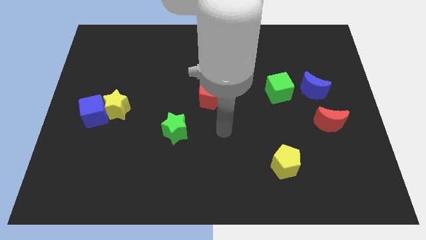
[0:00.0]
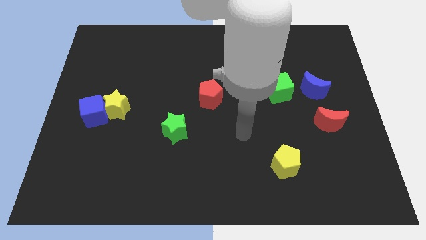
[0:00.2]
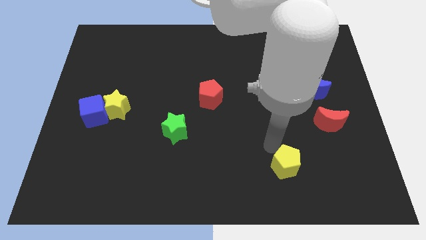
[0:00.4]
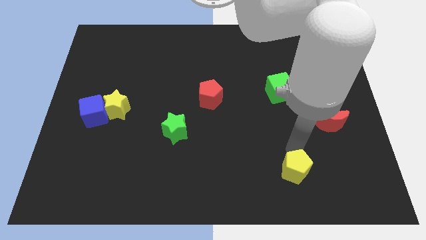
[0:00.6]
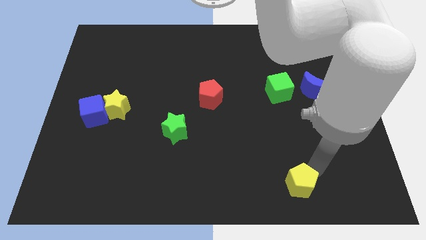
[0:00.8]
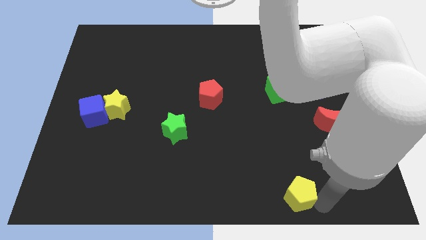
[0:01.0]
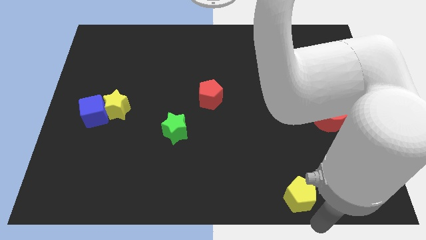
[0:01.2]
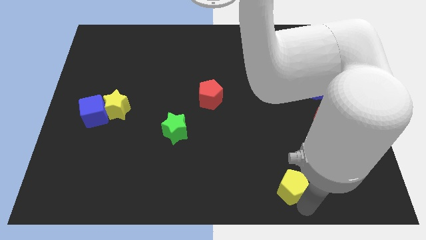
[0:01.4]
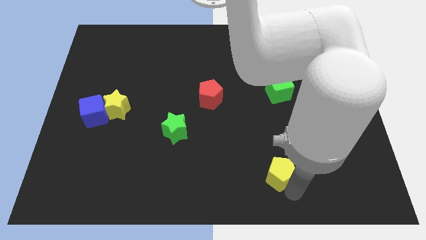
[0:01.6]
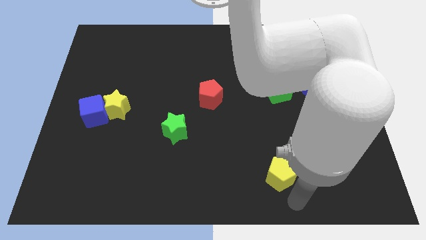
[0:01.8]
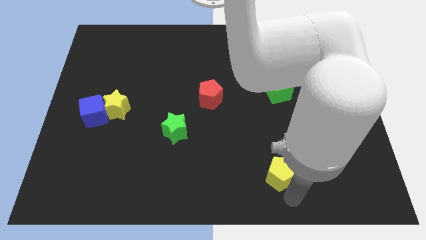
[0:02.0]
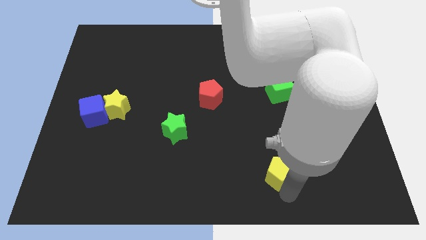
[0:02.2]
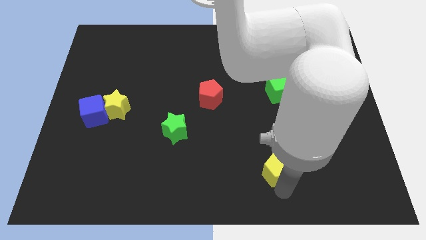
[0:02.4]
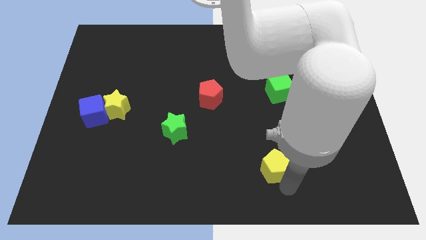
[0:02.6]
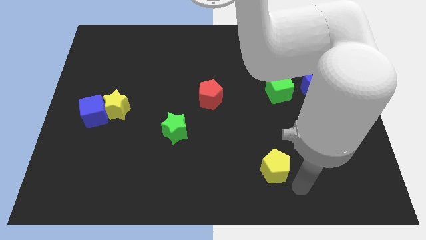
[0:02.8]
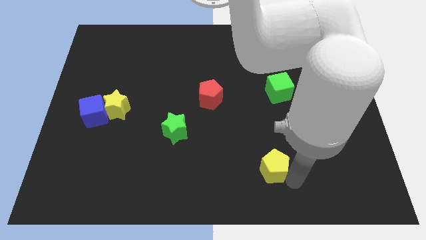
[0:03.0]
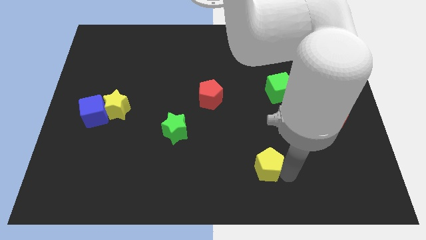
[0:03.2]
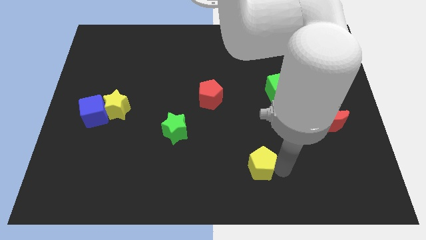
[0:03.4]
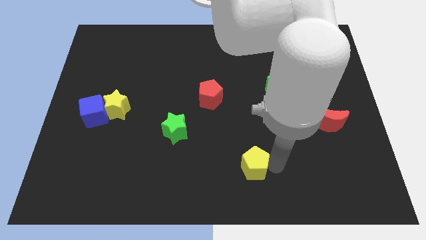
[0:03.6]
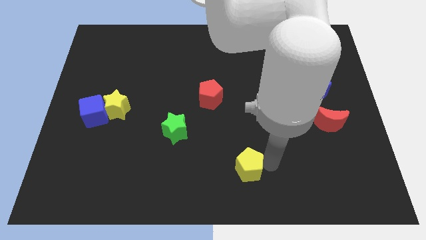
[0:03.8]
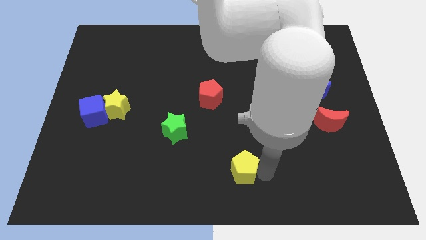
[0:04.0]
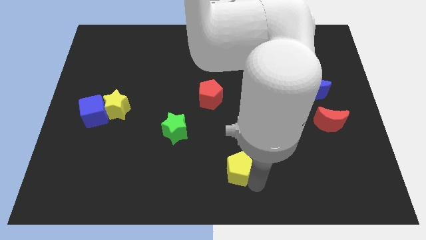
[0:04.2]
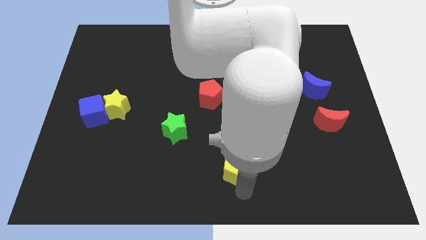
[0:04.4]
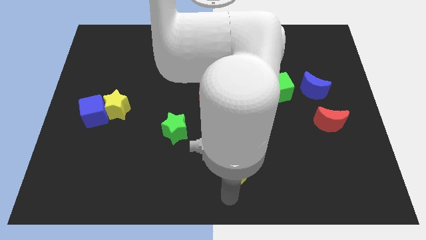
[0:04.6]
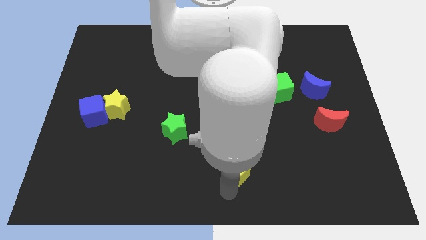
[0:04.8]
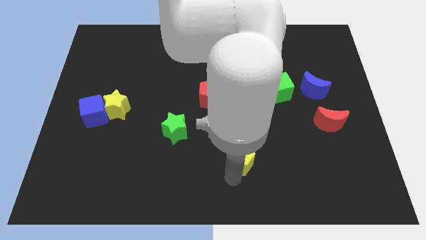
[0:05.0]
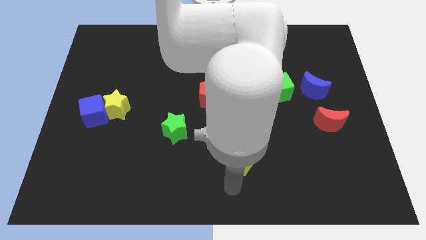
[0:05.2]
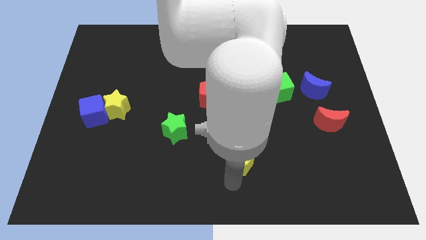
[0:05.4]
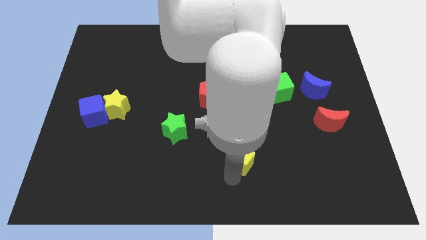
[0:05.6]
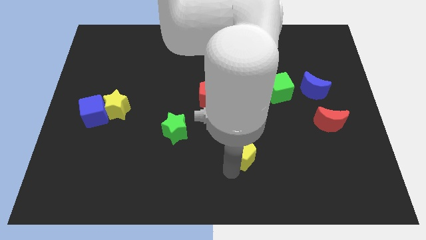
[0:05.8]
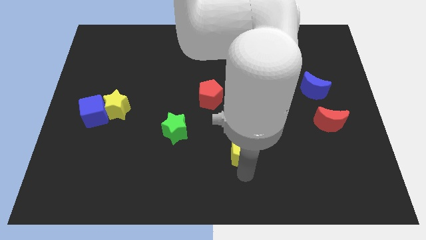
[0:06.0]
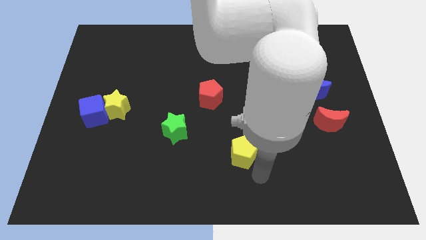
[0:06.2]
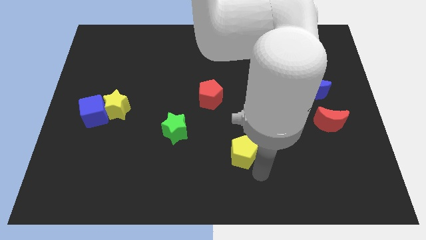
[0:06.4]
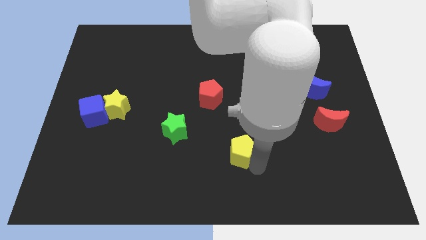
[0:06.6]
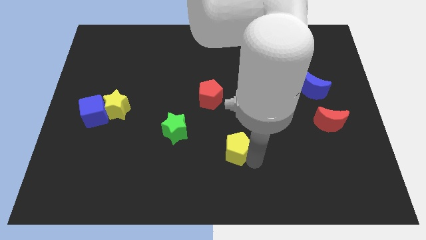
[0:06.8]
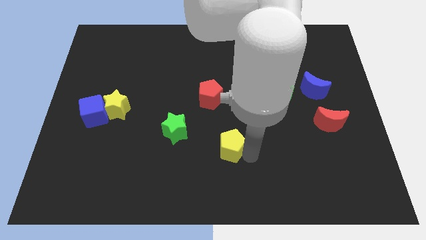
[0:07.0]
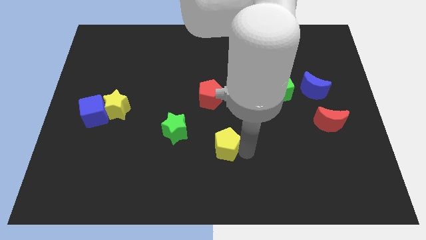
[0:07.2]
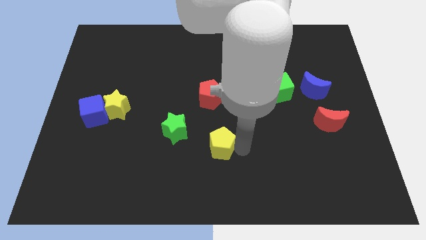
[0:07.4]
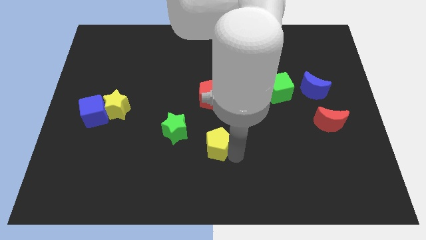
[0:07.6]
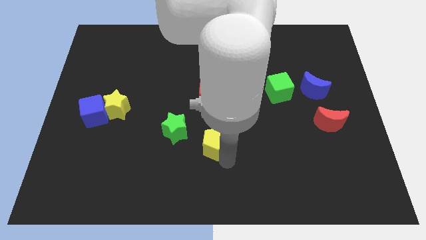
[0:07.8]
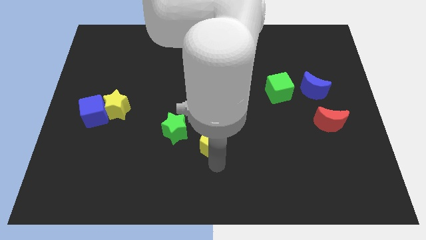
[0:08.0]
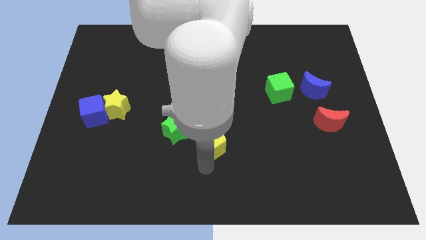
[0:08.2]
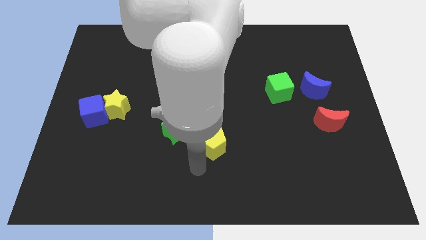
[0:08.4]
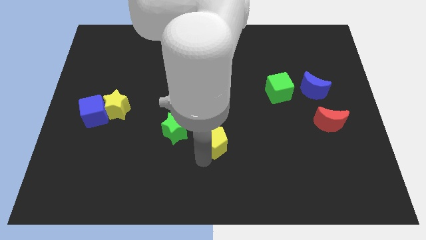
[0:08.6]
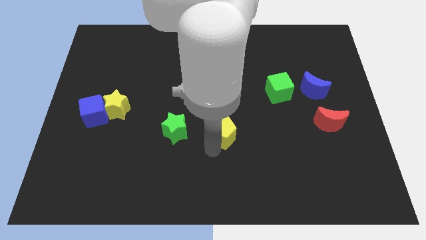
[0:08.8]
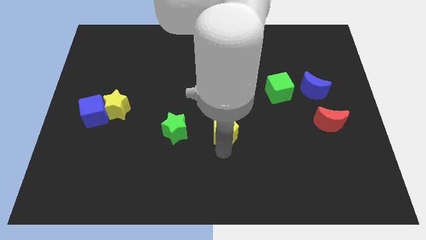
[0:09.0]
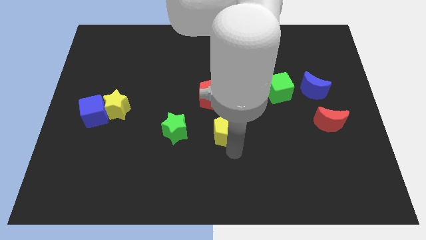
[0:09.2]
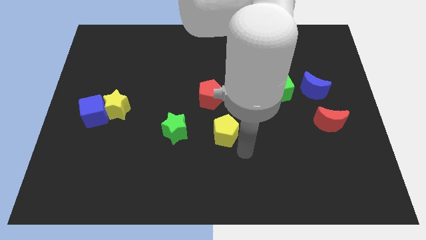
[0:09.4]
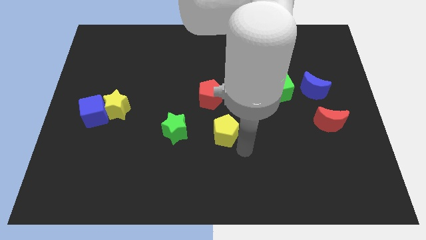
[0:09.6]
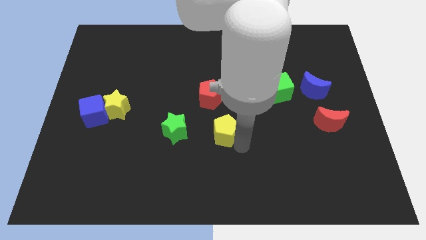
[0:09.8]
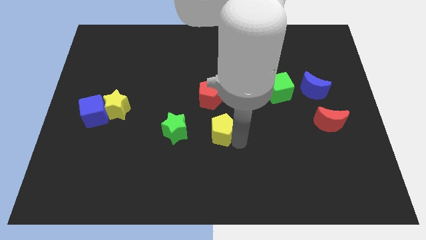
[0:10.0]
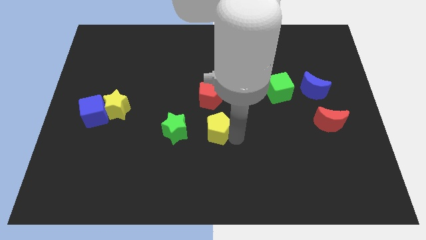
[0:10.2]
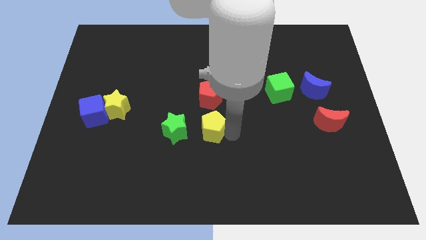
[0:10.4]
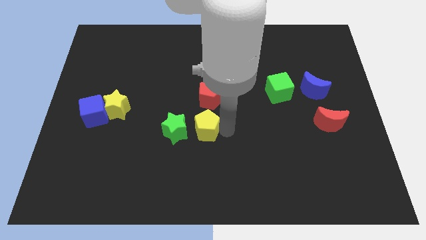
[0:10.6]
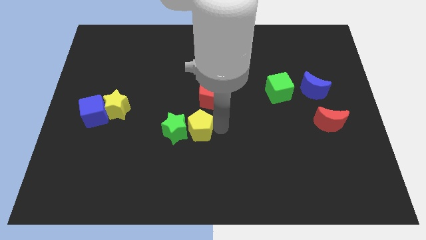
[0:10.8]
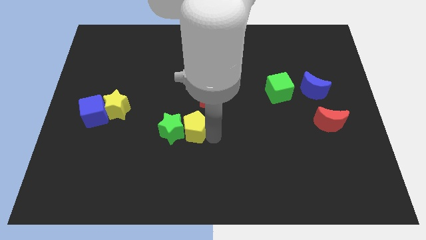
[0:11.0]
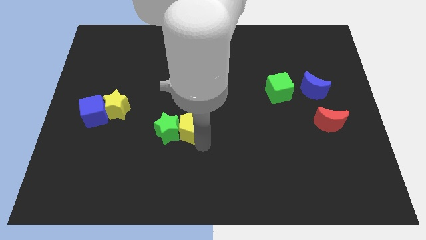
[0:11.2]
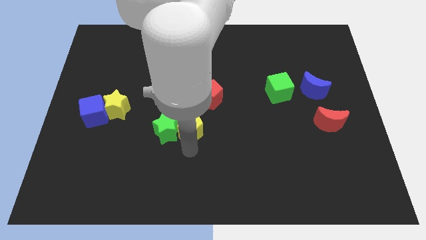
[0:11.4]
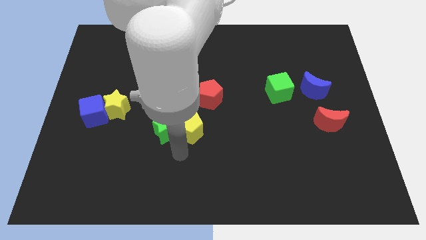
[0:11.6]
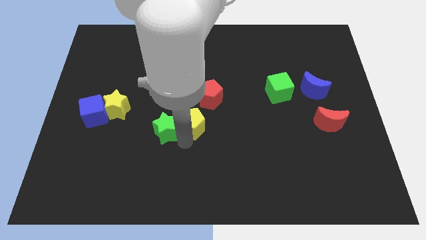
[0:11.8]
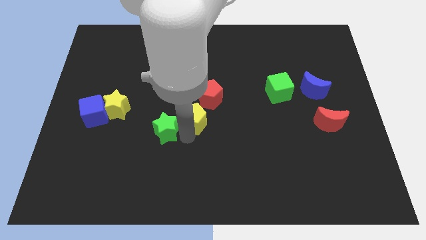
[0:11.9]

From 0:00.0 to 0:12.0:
slide the yellow pentagon upwards and then left

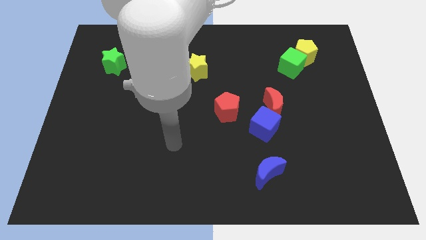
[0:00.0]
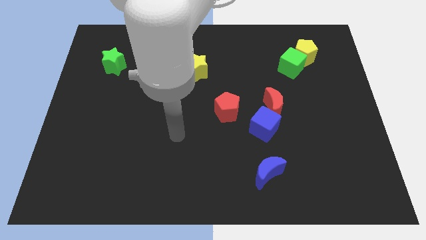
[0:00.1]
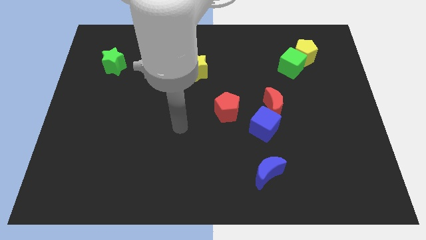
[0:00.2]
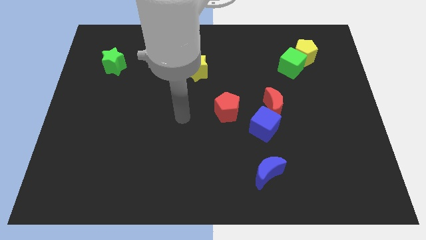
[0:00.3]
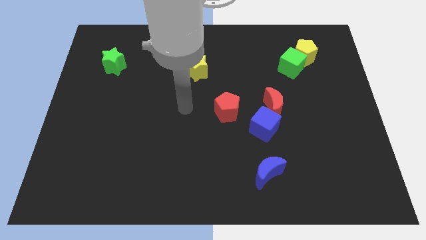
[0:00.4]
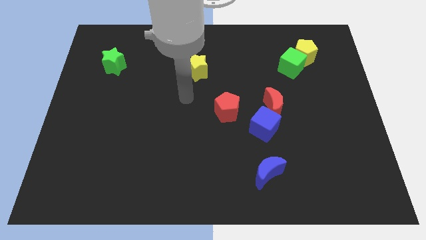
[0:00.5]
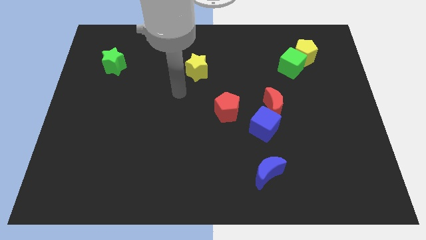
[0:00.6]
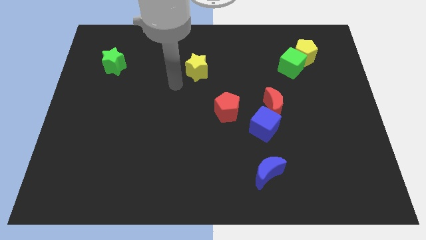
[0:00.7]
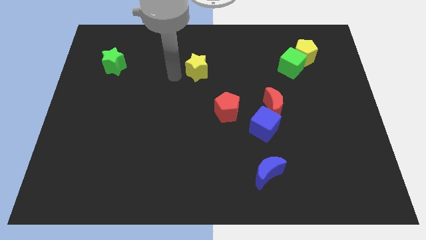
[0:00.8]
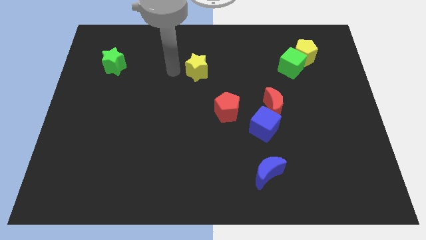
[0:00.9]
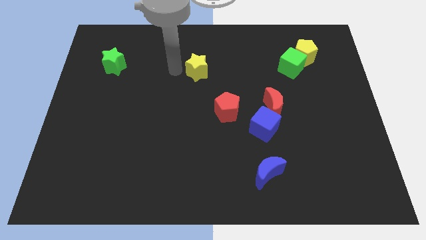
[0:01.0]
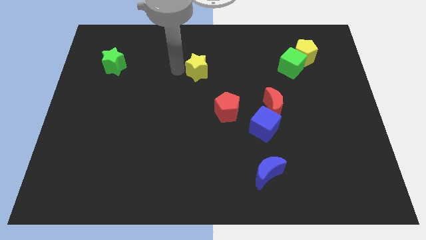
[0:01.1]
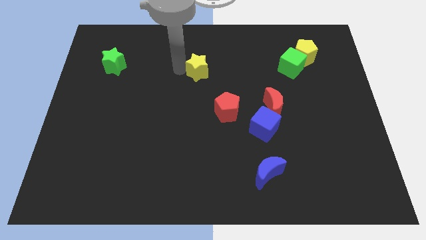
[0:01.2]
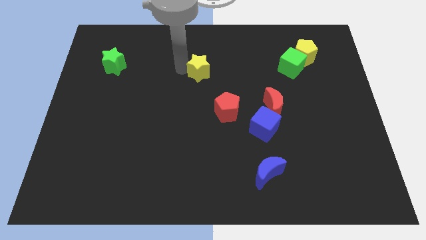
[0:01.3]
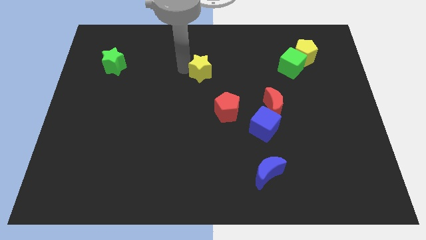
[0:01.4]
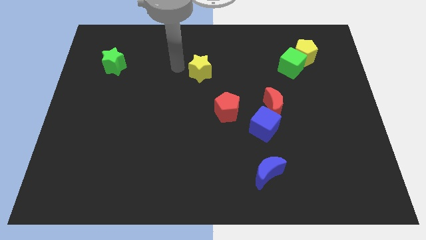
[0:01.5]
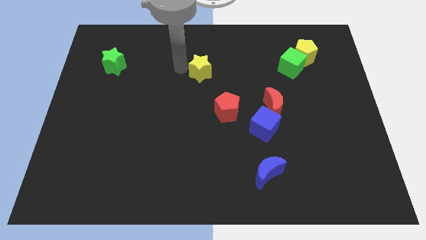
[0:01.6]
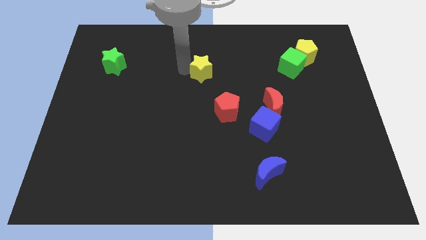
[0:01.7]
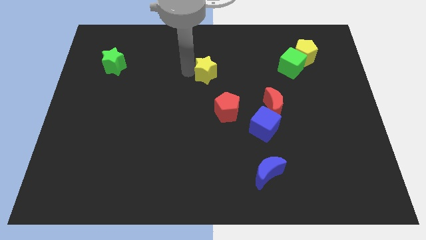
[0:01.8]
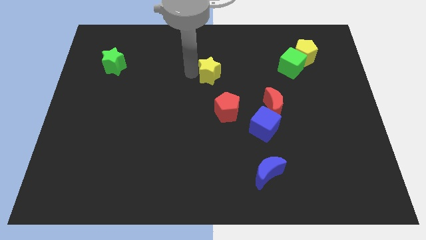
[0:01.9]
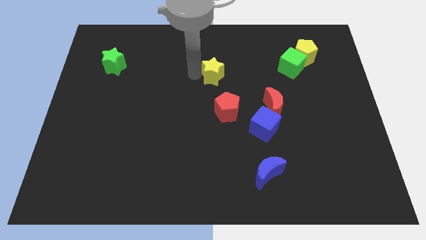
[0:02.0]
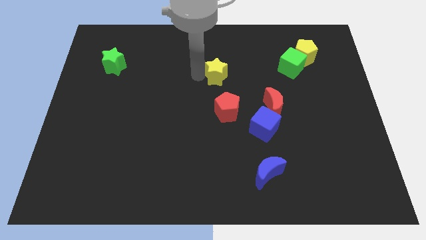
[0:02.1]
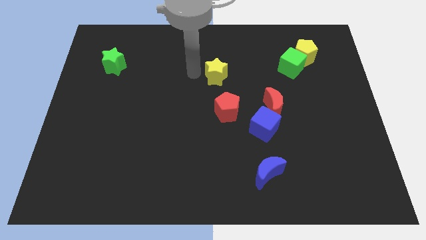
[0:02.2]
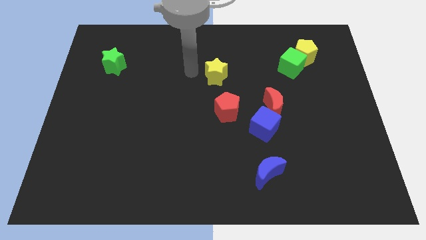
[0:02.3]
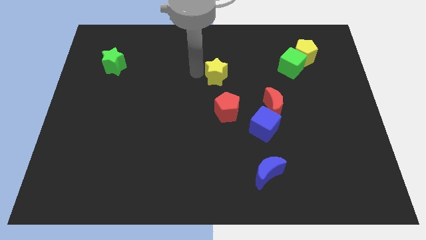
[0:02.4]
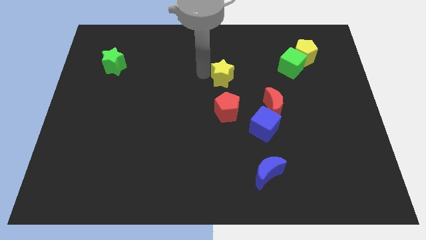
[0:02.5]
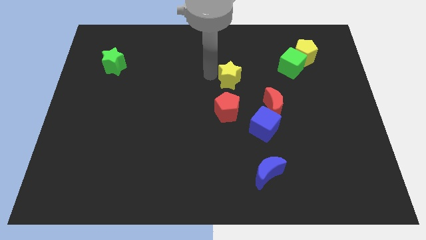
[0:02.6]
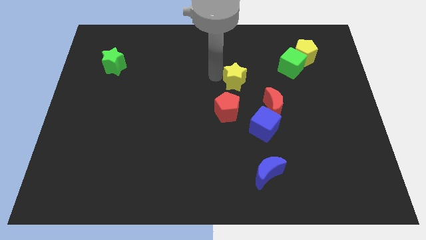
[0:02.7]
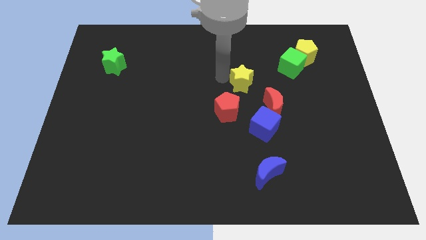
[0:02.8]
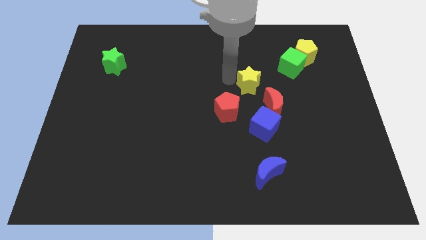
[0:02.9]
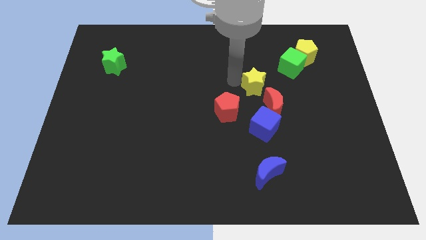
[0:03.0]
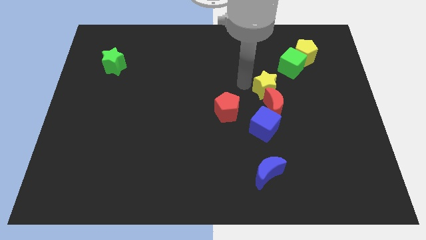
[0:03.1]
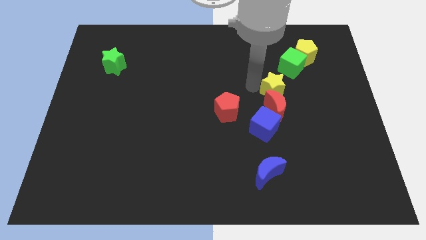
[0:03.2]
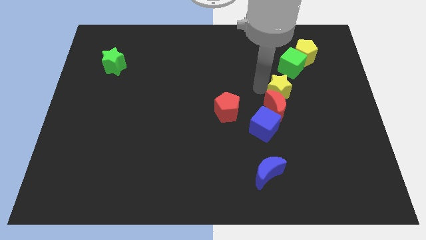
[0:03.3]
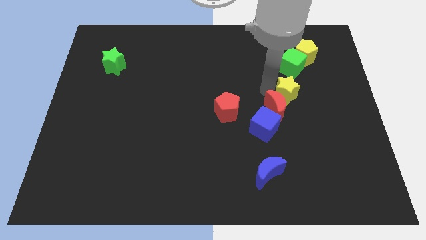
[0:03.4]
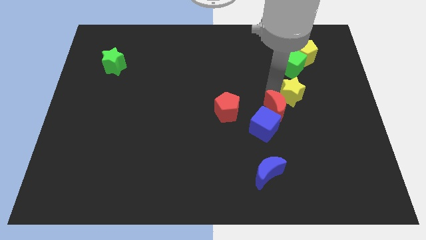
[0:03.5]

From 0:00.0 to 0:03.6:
move the yellow star right
